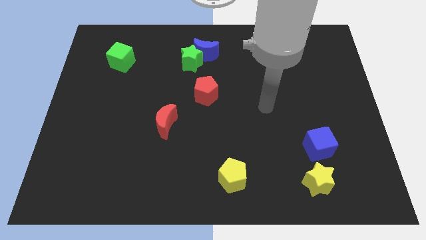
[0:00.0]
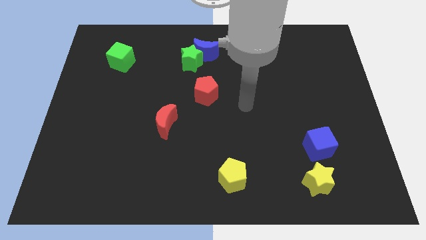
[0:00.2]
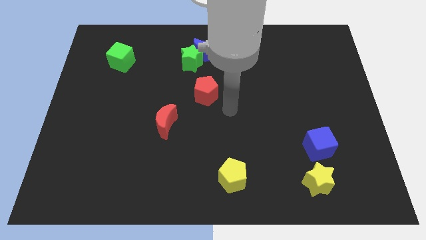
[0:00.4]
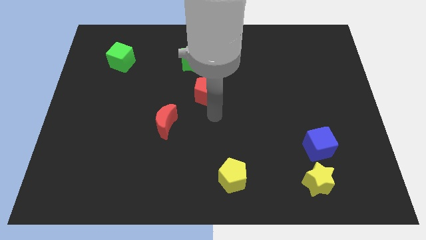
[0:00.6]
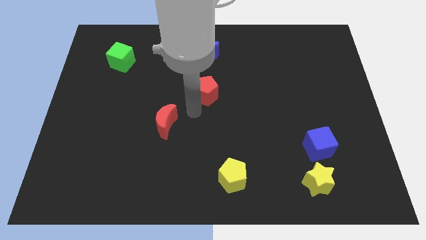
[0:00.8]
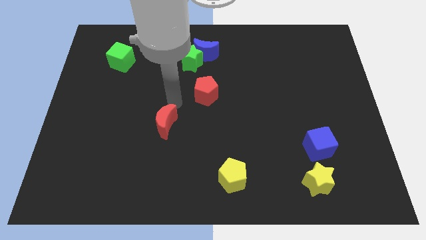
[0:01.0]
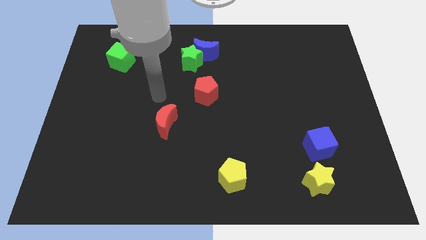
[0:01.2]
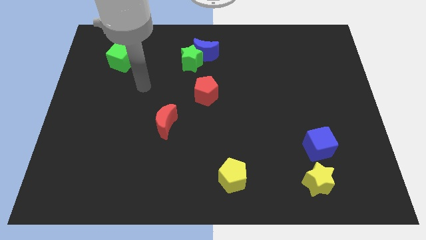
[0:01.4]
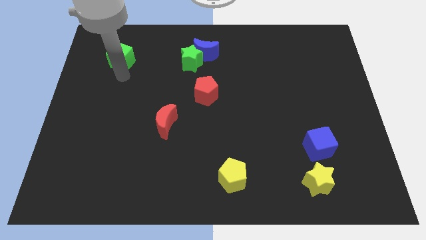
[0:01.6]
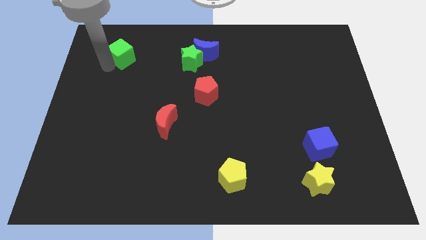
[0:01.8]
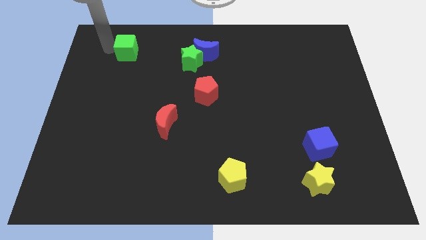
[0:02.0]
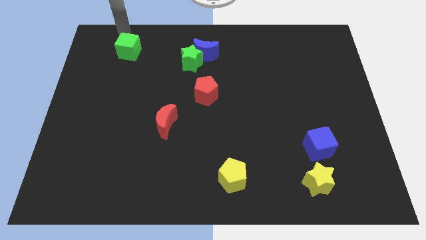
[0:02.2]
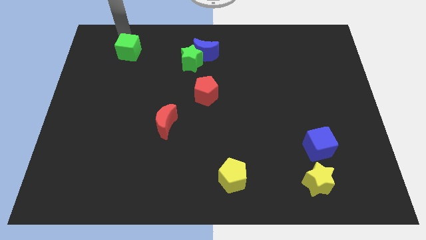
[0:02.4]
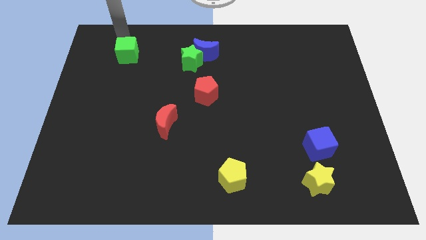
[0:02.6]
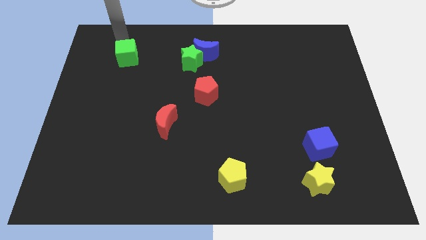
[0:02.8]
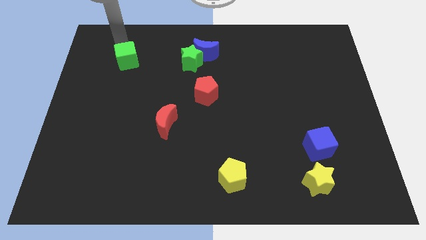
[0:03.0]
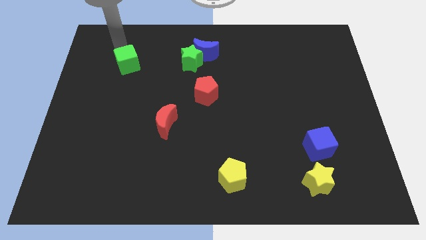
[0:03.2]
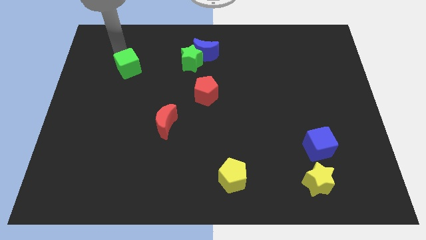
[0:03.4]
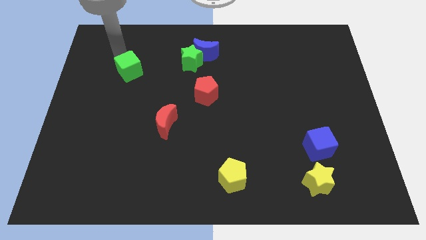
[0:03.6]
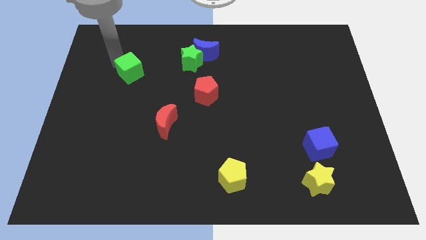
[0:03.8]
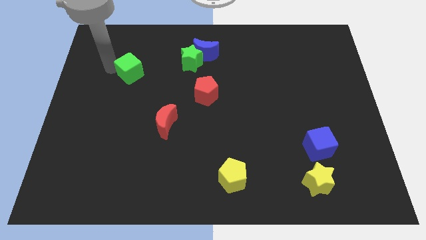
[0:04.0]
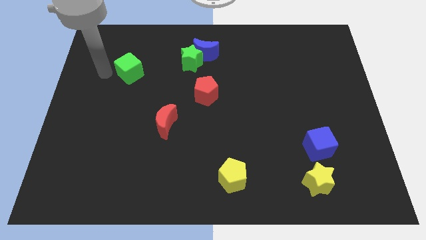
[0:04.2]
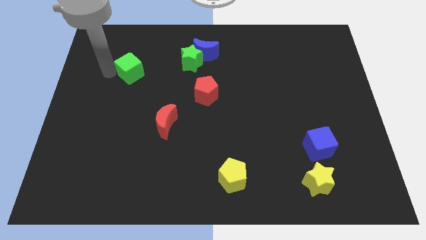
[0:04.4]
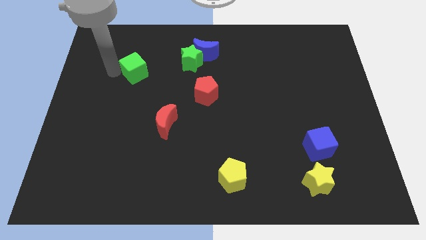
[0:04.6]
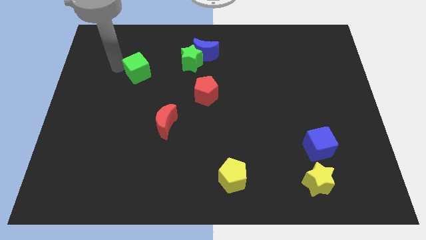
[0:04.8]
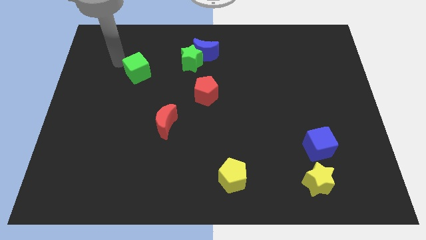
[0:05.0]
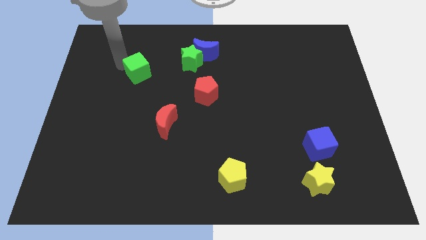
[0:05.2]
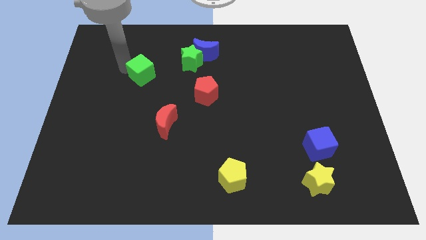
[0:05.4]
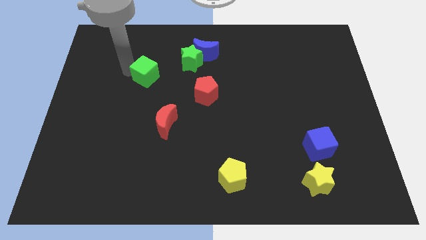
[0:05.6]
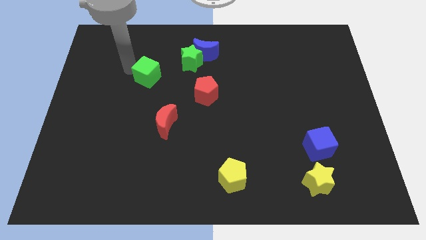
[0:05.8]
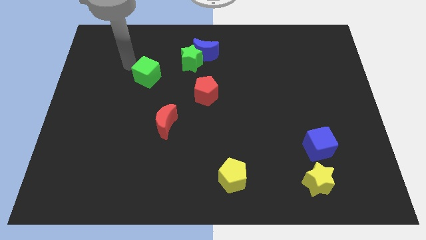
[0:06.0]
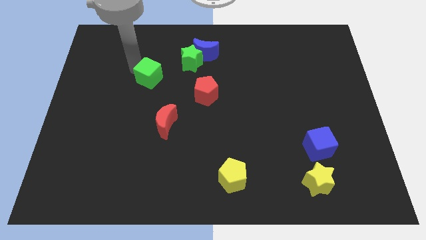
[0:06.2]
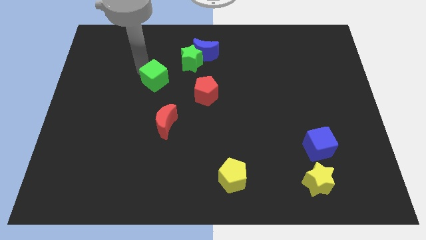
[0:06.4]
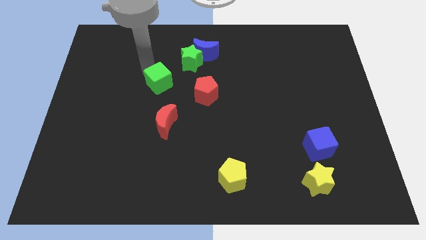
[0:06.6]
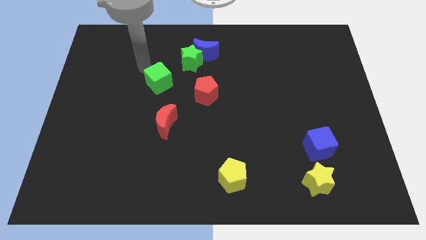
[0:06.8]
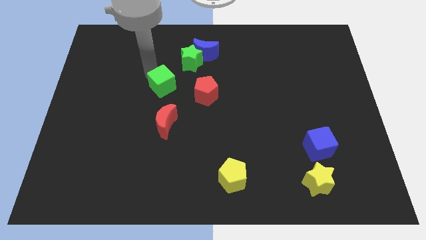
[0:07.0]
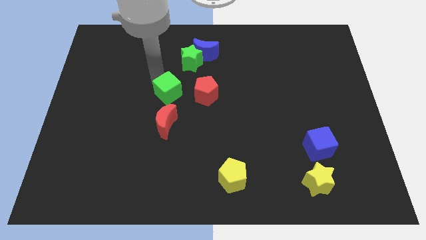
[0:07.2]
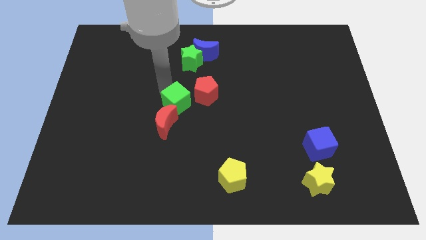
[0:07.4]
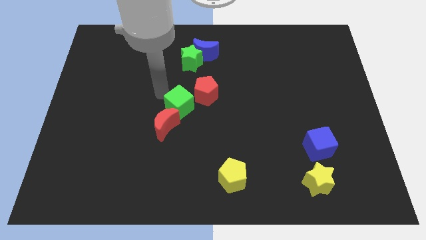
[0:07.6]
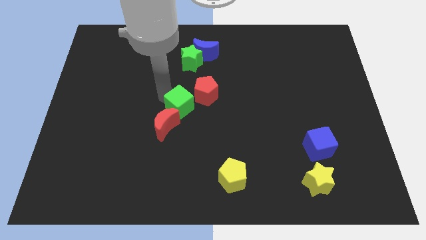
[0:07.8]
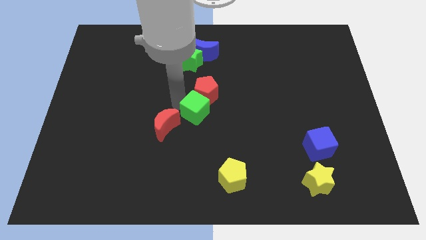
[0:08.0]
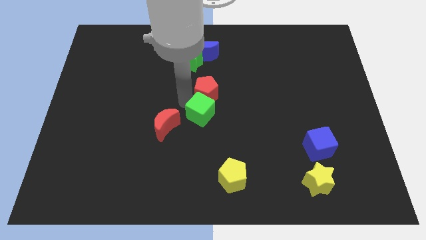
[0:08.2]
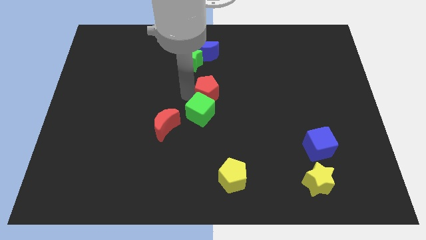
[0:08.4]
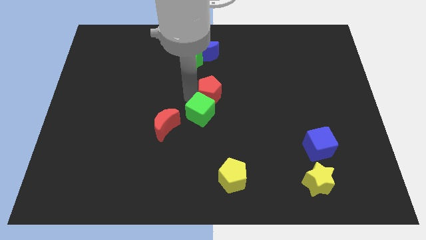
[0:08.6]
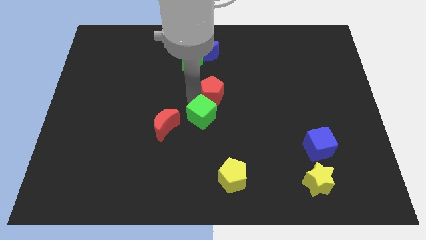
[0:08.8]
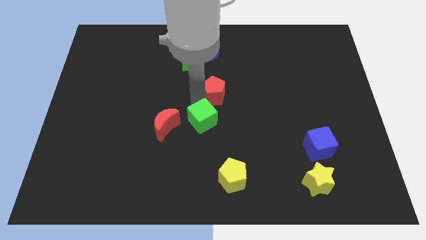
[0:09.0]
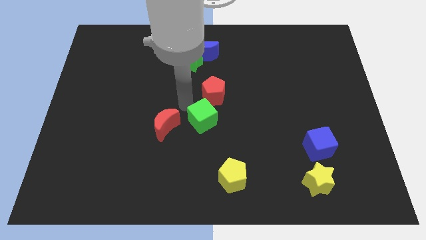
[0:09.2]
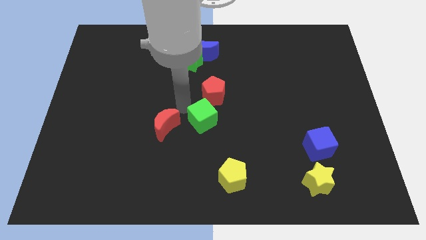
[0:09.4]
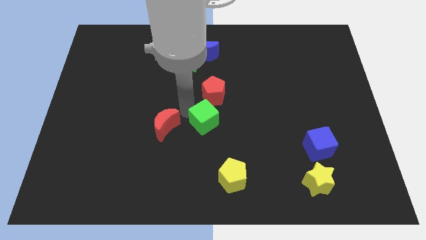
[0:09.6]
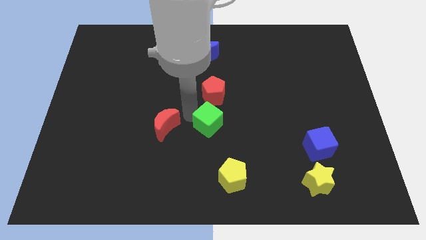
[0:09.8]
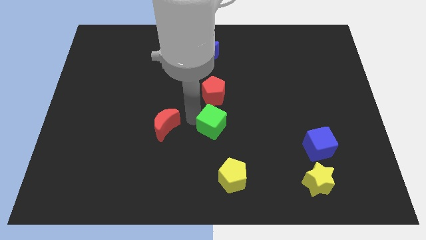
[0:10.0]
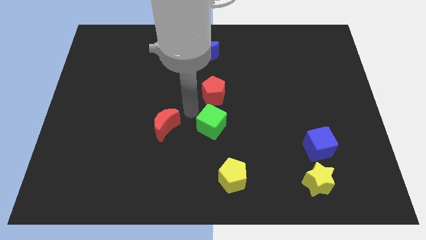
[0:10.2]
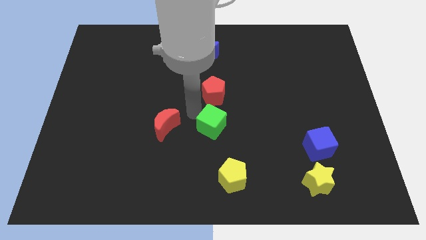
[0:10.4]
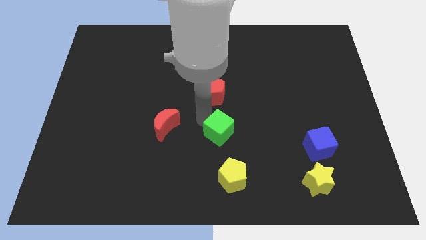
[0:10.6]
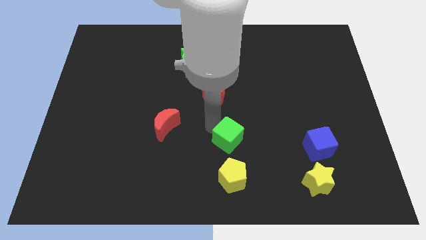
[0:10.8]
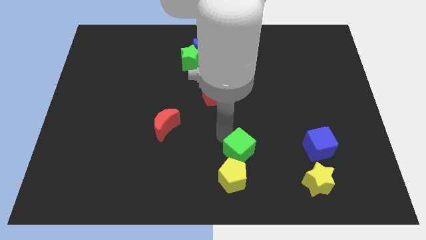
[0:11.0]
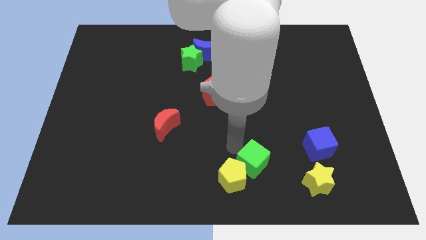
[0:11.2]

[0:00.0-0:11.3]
slide the green cube right of the yellow pentagon

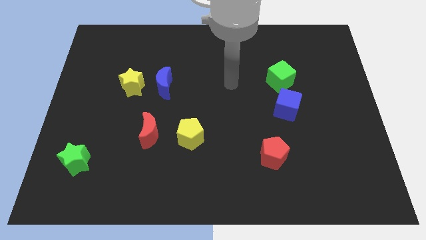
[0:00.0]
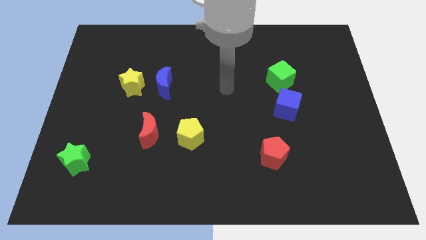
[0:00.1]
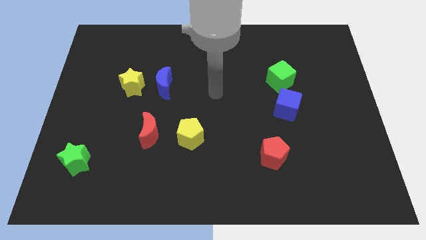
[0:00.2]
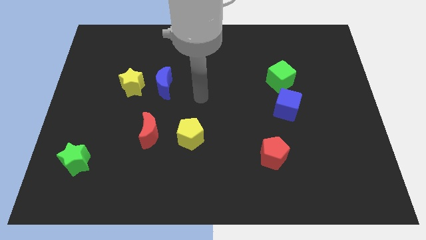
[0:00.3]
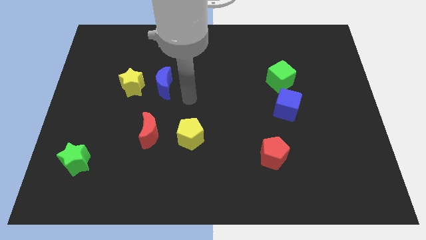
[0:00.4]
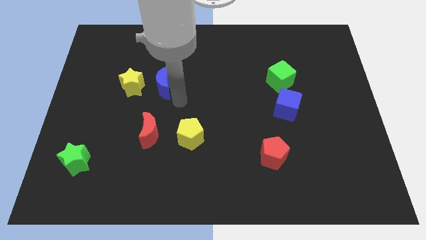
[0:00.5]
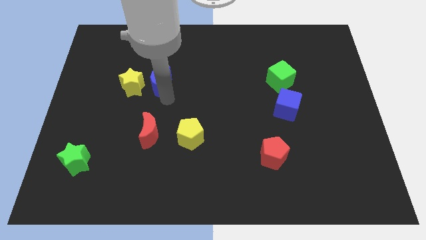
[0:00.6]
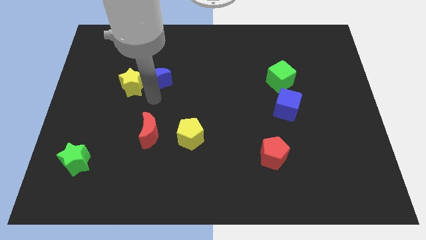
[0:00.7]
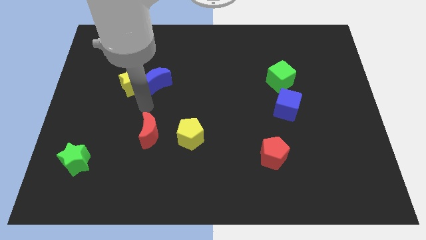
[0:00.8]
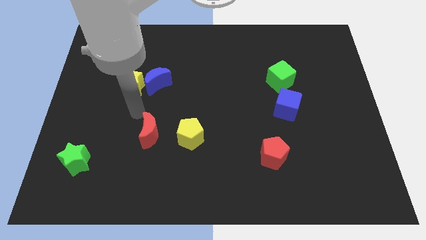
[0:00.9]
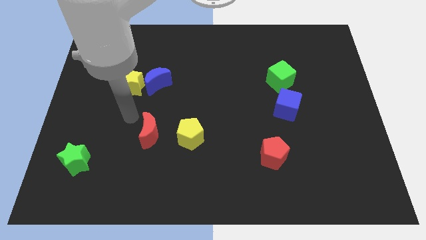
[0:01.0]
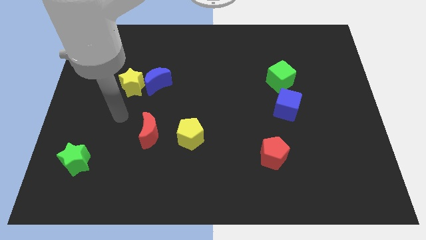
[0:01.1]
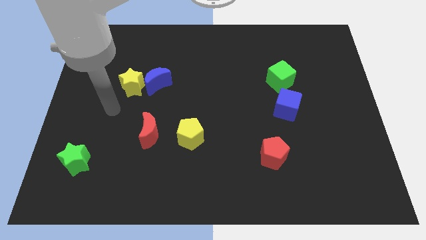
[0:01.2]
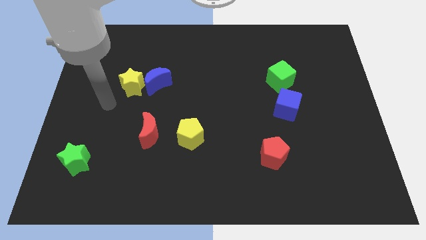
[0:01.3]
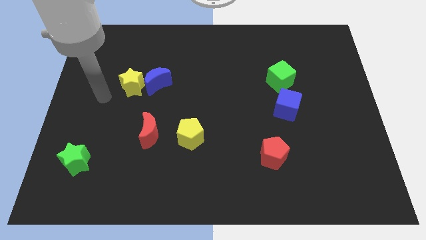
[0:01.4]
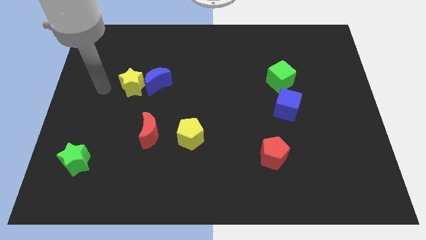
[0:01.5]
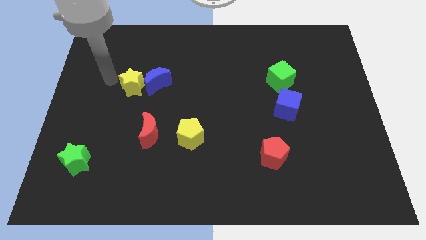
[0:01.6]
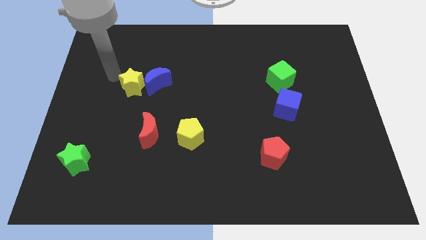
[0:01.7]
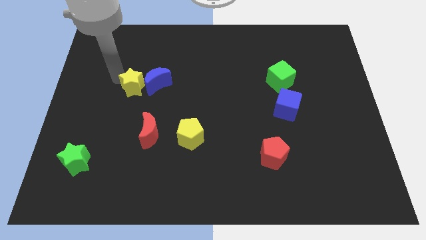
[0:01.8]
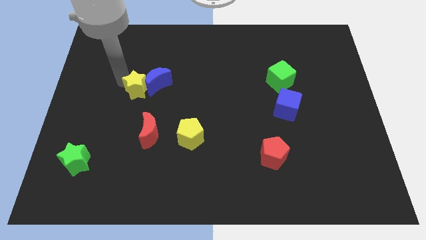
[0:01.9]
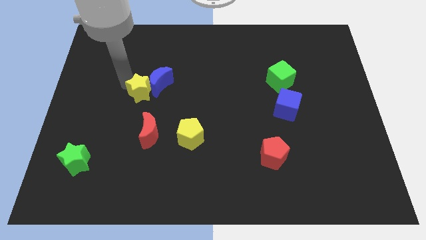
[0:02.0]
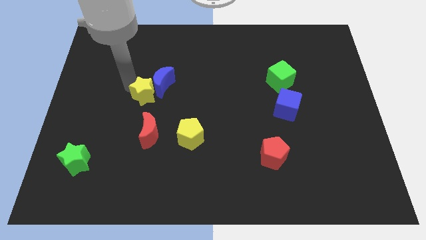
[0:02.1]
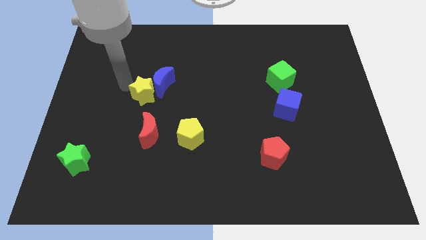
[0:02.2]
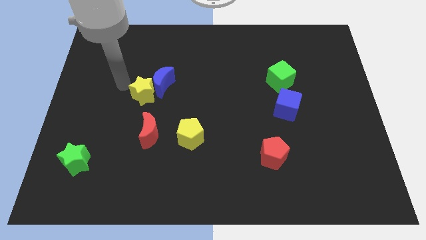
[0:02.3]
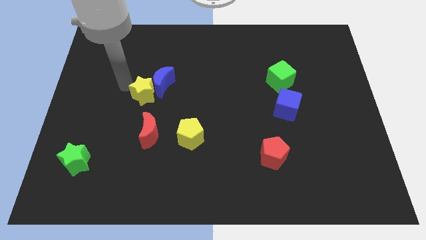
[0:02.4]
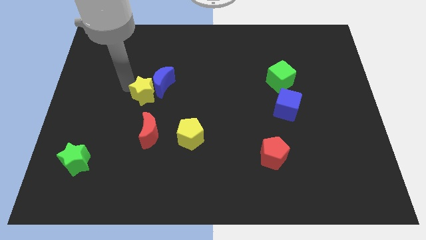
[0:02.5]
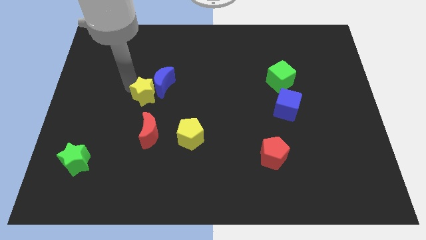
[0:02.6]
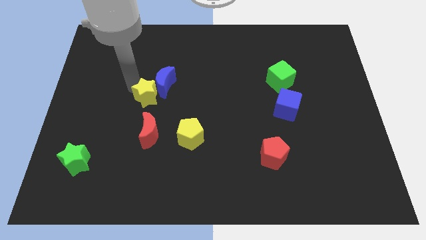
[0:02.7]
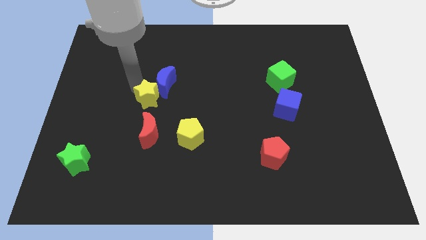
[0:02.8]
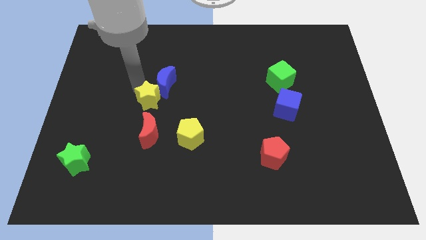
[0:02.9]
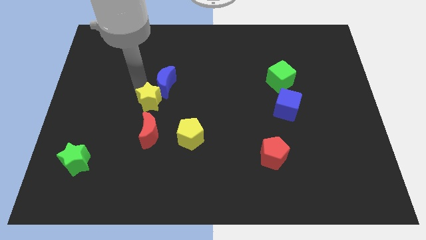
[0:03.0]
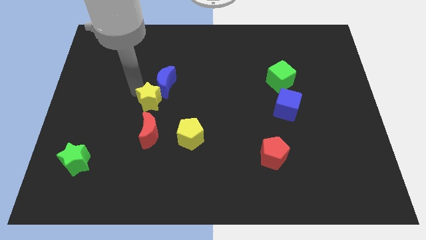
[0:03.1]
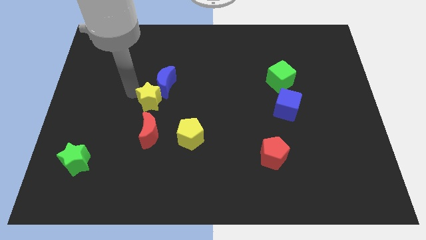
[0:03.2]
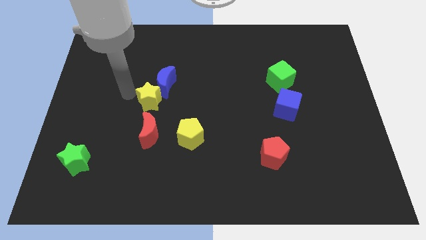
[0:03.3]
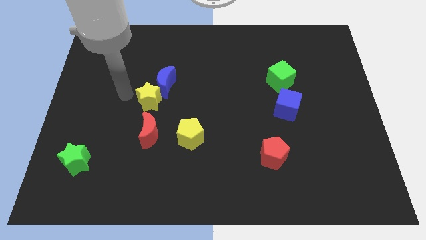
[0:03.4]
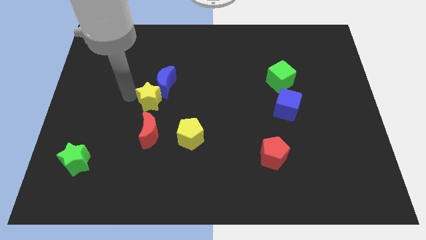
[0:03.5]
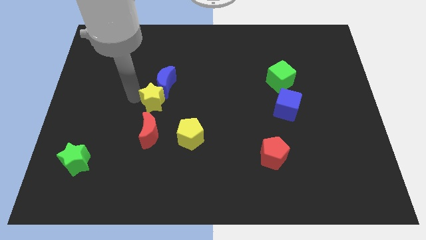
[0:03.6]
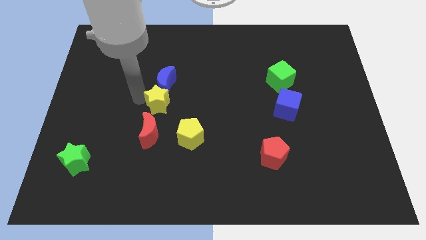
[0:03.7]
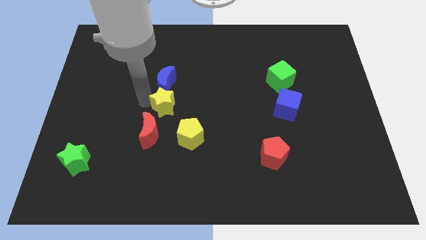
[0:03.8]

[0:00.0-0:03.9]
move the yellow star to the bottom right side of the blue moon
